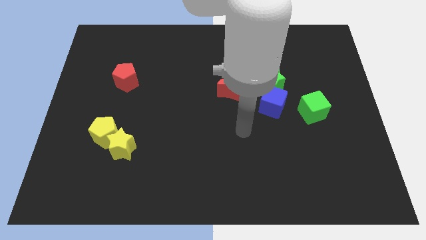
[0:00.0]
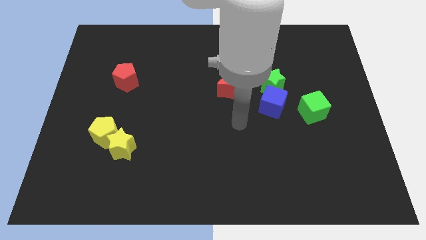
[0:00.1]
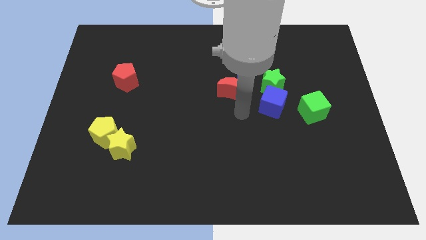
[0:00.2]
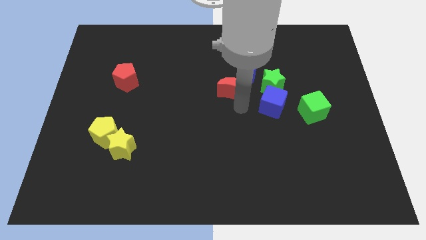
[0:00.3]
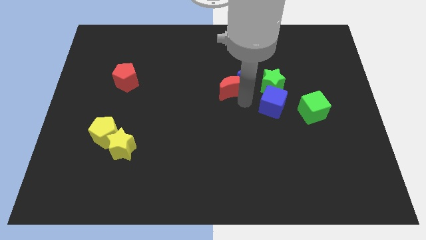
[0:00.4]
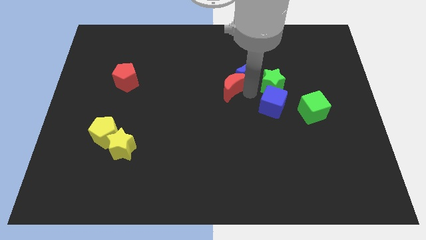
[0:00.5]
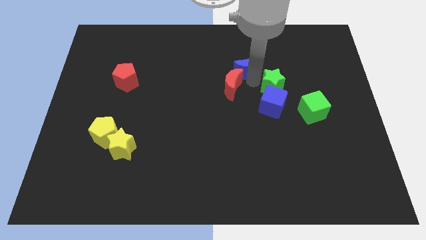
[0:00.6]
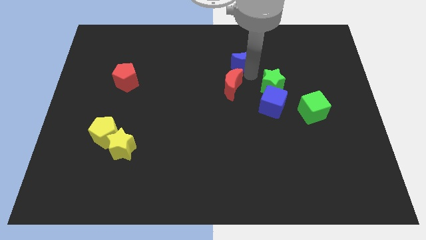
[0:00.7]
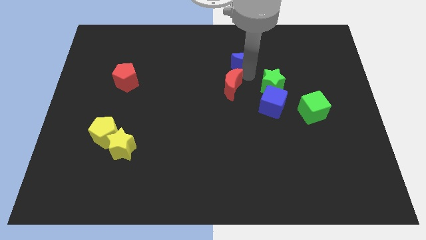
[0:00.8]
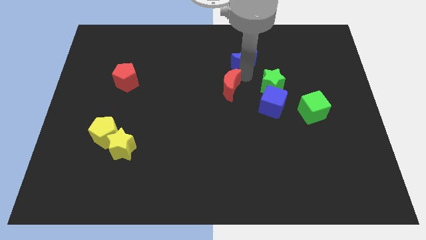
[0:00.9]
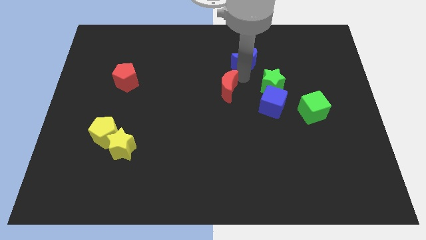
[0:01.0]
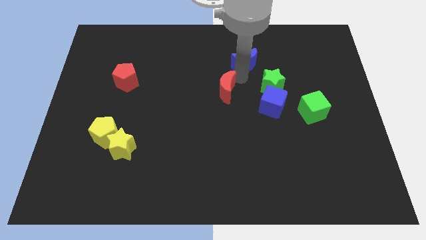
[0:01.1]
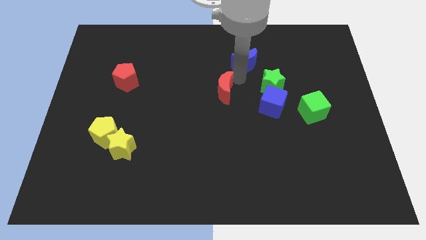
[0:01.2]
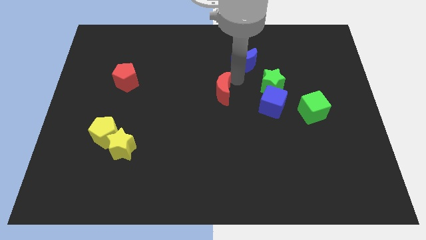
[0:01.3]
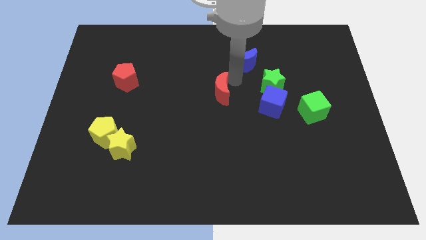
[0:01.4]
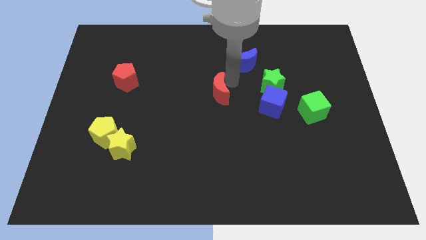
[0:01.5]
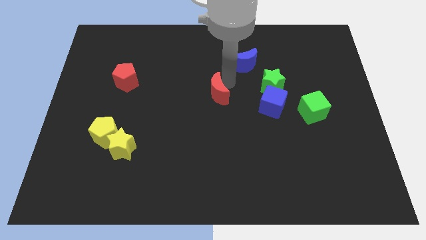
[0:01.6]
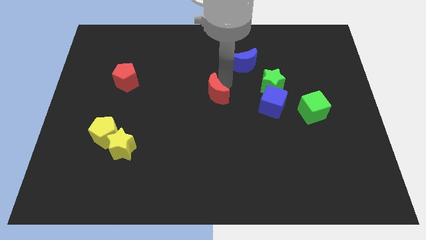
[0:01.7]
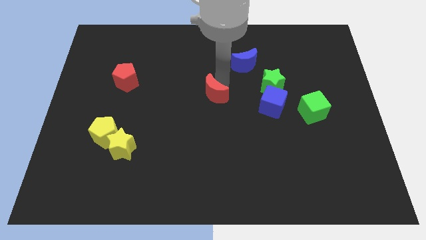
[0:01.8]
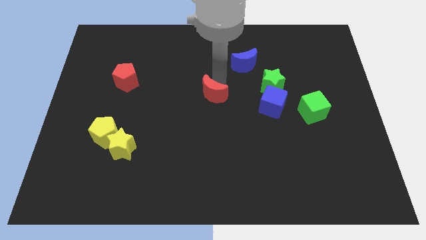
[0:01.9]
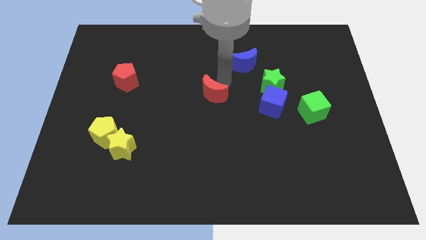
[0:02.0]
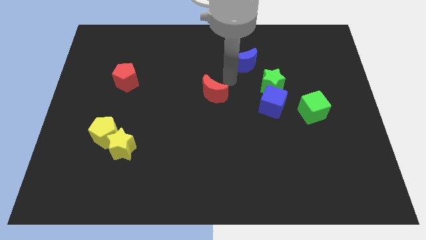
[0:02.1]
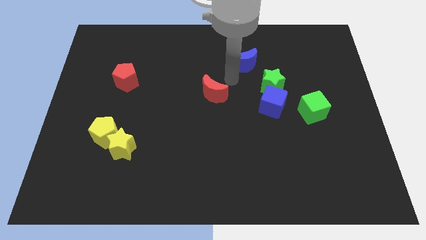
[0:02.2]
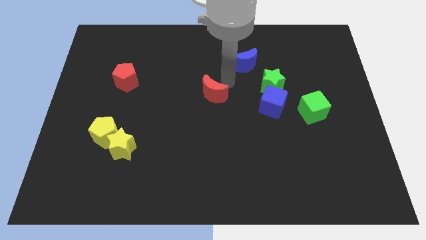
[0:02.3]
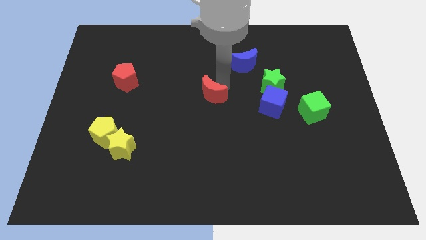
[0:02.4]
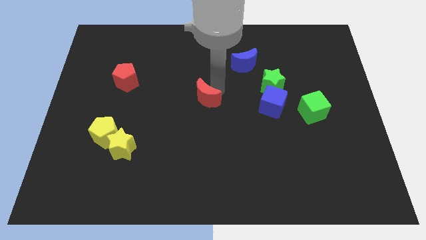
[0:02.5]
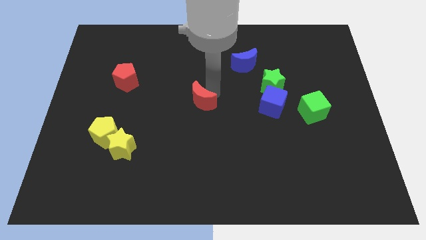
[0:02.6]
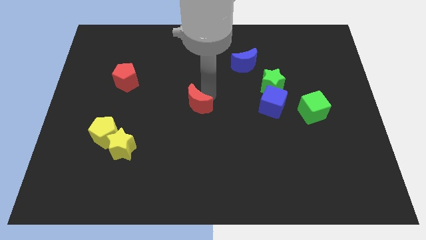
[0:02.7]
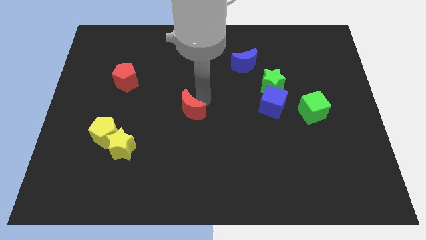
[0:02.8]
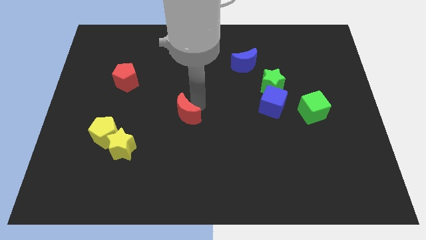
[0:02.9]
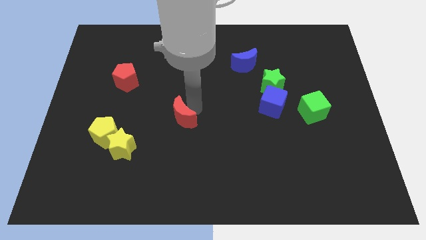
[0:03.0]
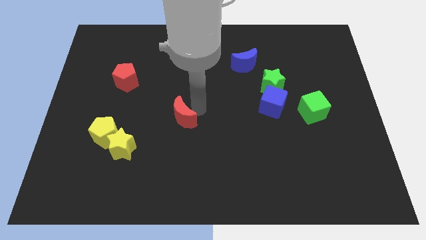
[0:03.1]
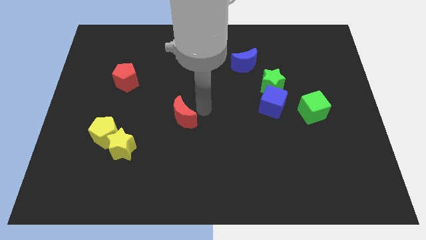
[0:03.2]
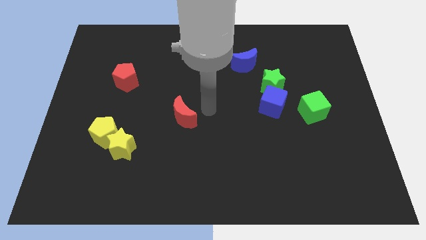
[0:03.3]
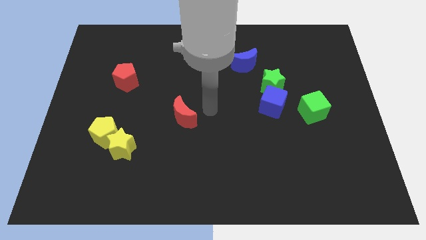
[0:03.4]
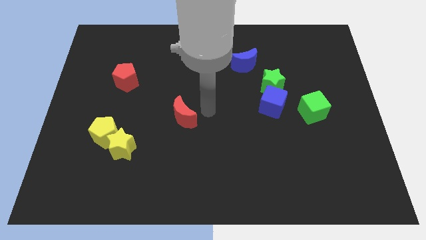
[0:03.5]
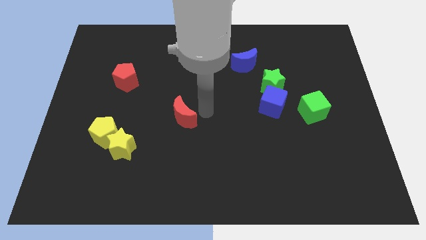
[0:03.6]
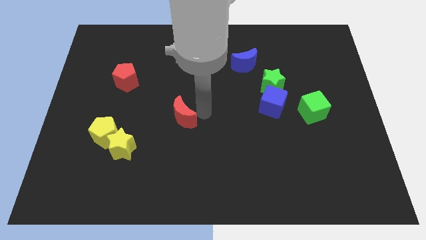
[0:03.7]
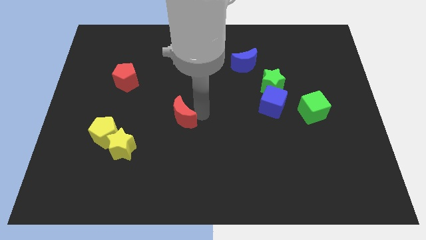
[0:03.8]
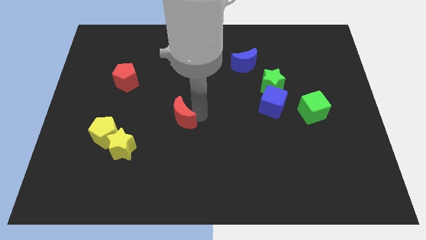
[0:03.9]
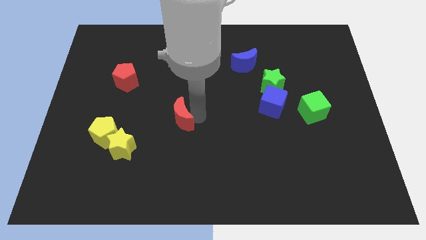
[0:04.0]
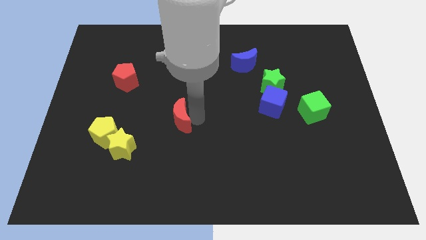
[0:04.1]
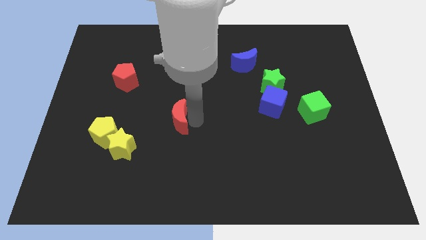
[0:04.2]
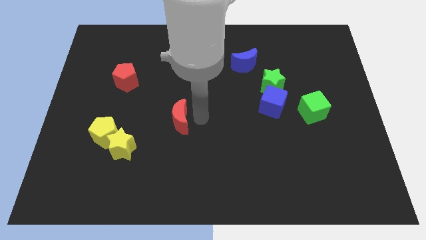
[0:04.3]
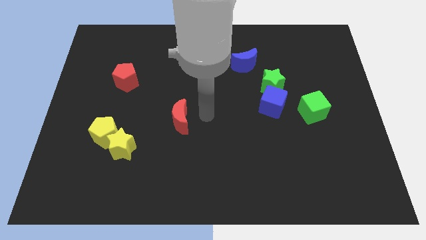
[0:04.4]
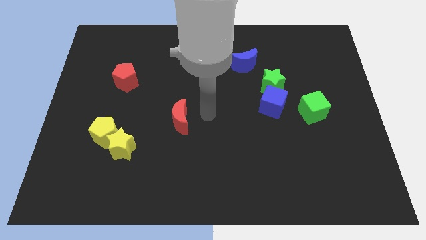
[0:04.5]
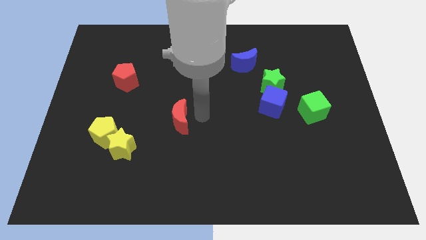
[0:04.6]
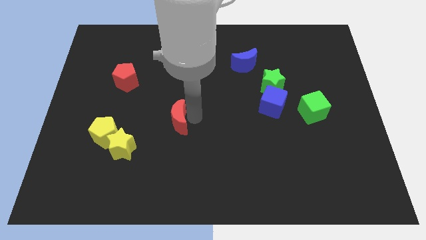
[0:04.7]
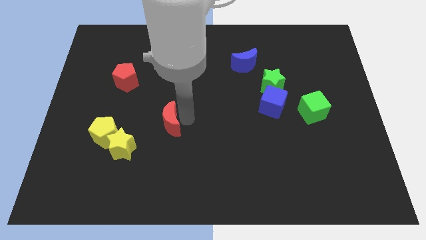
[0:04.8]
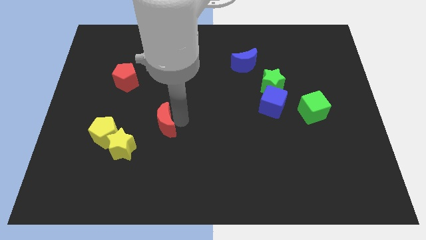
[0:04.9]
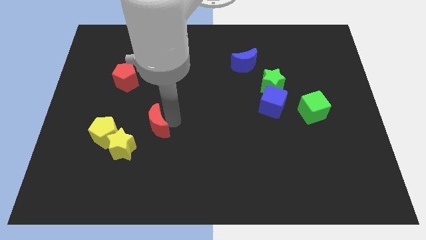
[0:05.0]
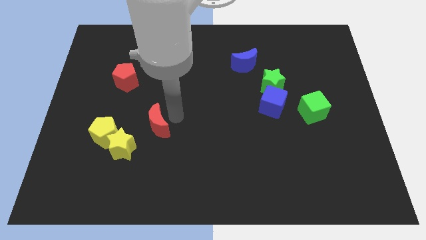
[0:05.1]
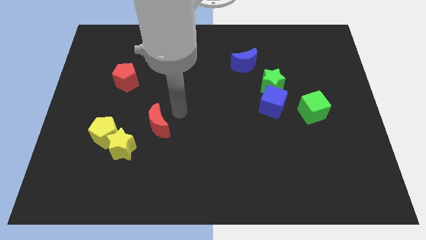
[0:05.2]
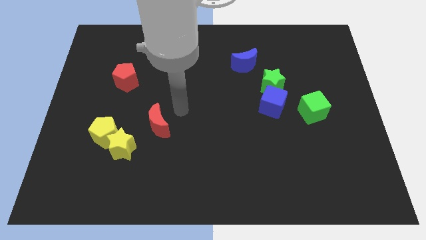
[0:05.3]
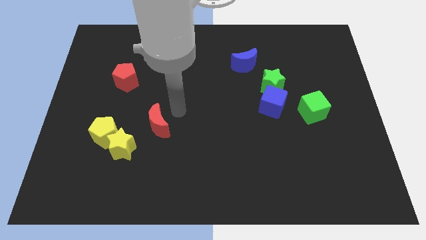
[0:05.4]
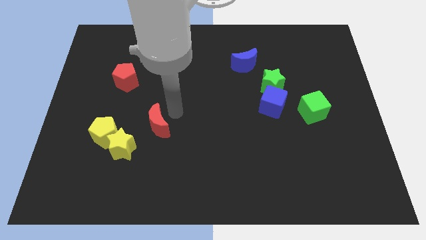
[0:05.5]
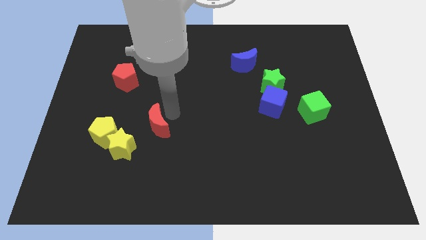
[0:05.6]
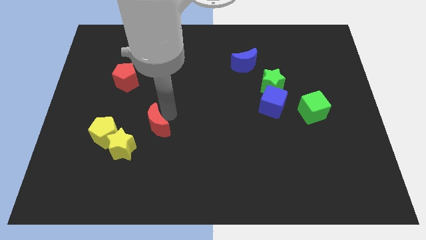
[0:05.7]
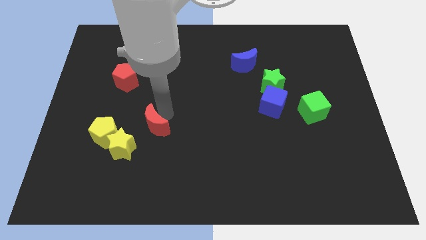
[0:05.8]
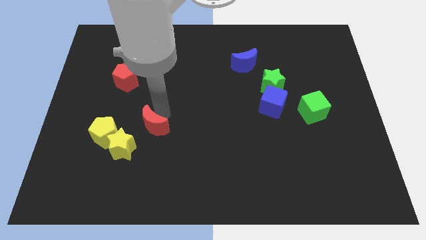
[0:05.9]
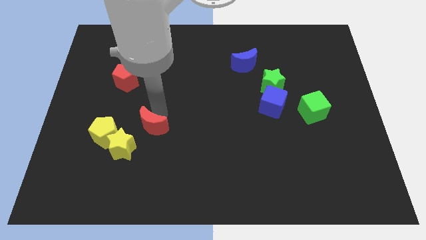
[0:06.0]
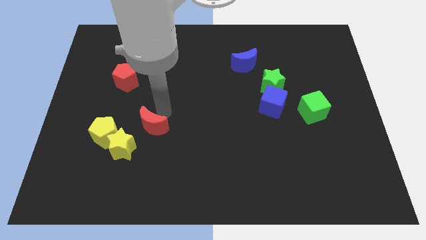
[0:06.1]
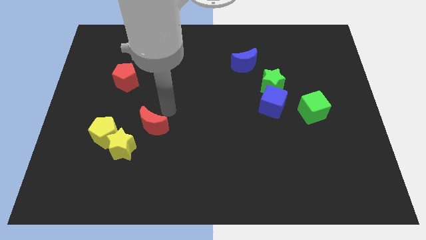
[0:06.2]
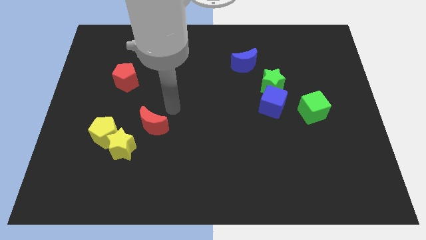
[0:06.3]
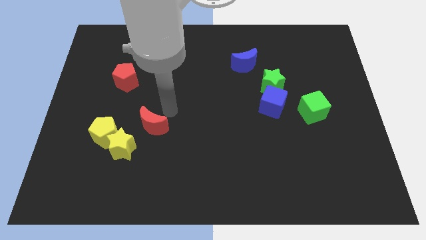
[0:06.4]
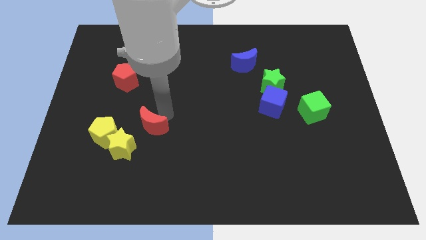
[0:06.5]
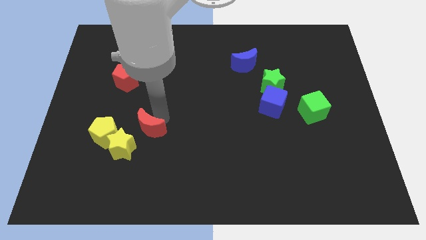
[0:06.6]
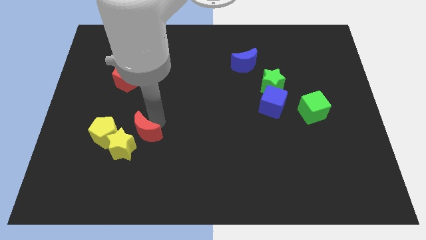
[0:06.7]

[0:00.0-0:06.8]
move the red moon towards the yellow star
